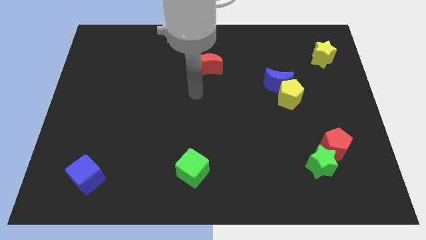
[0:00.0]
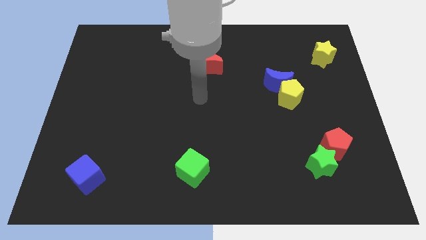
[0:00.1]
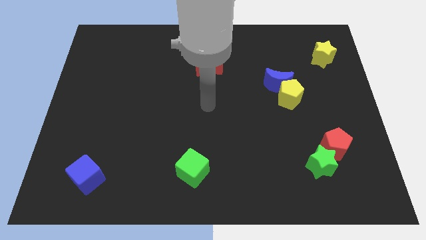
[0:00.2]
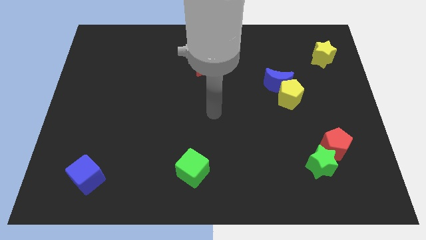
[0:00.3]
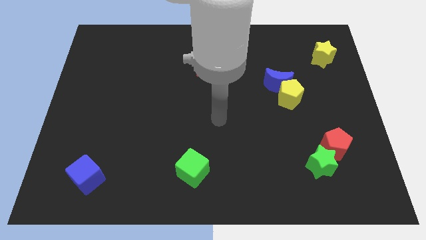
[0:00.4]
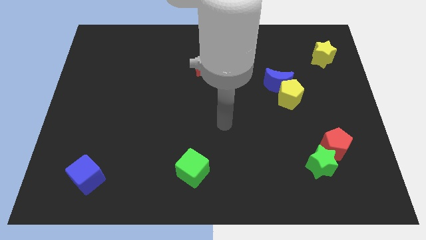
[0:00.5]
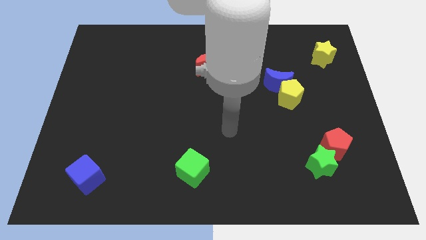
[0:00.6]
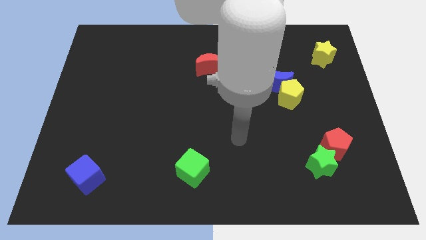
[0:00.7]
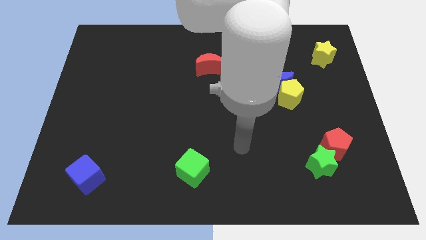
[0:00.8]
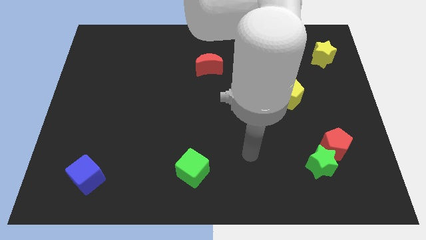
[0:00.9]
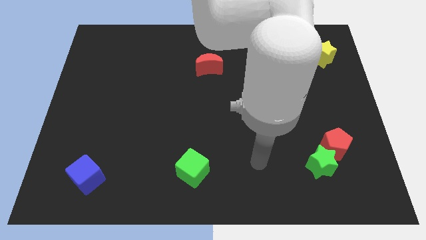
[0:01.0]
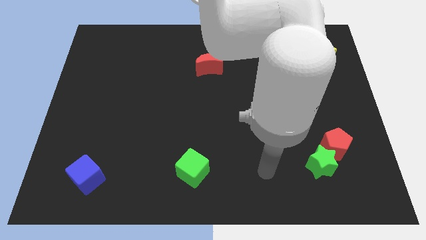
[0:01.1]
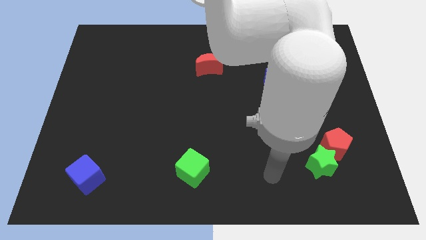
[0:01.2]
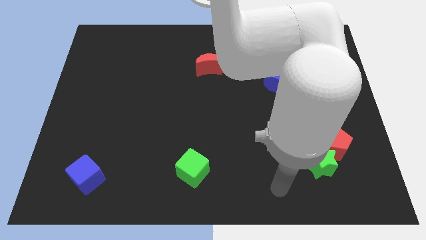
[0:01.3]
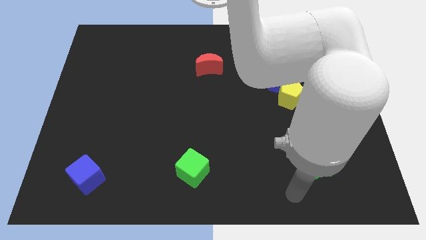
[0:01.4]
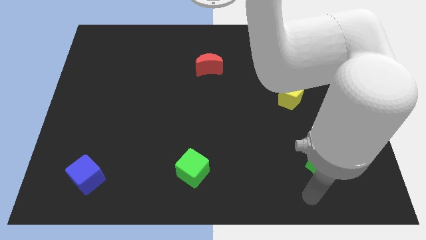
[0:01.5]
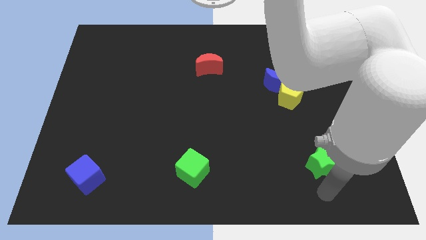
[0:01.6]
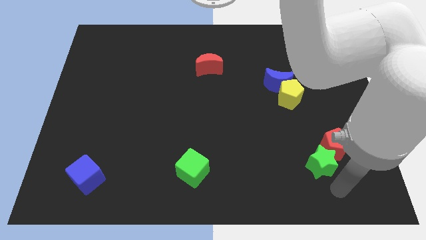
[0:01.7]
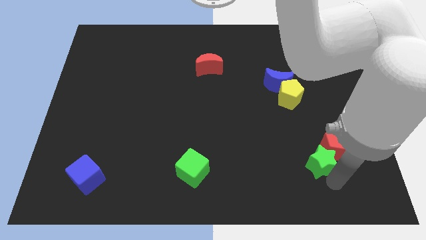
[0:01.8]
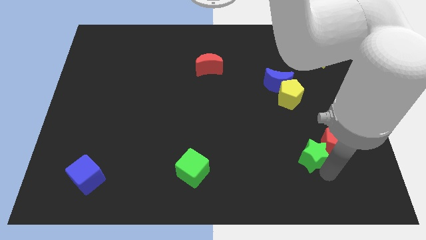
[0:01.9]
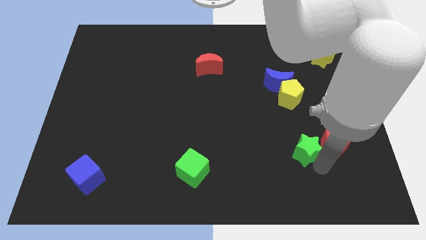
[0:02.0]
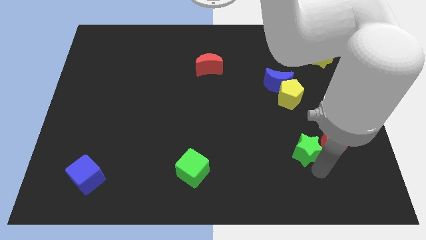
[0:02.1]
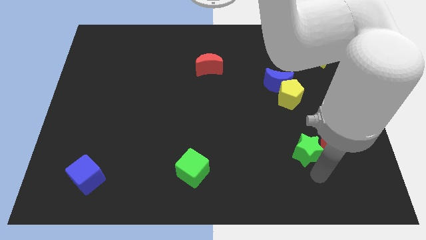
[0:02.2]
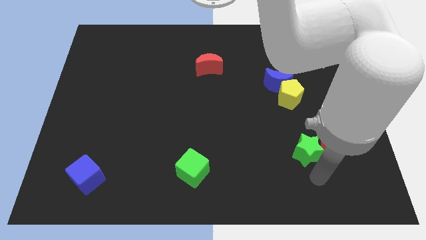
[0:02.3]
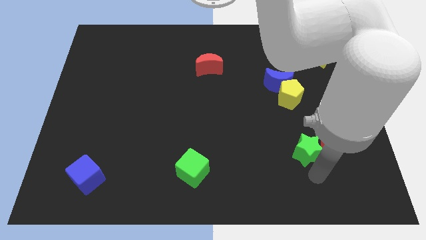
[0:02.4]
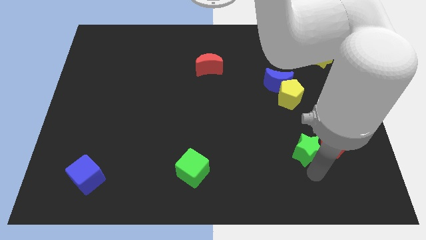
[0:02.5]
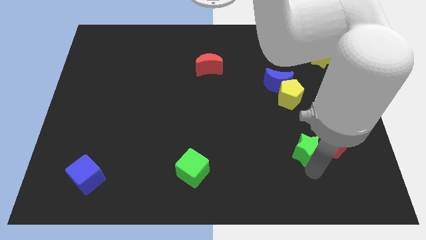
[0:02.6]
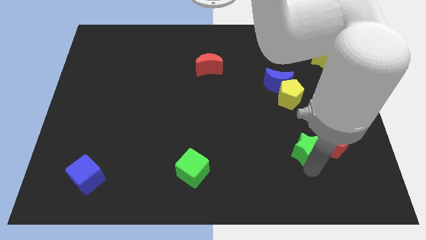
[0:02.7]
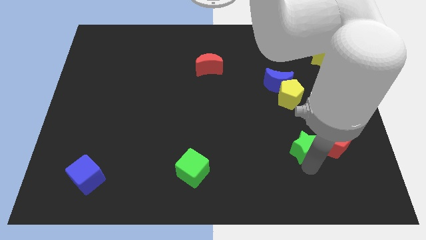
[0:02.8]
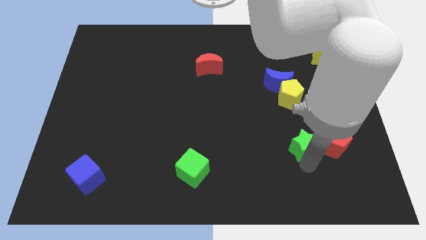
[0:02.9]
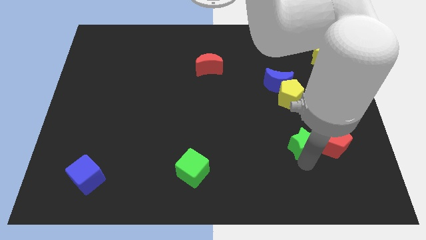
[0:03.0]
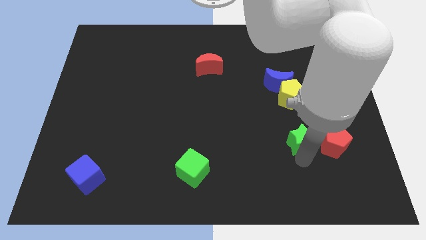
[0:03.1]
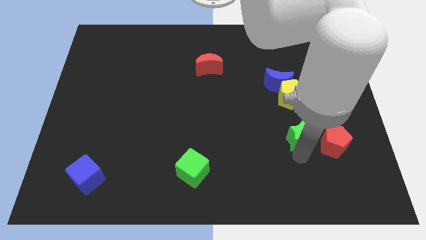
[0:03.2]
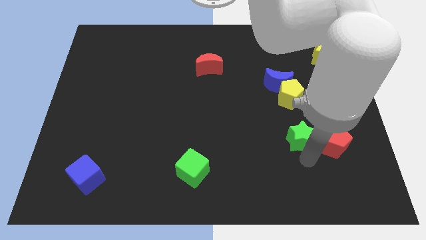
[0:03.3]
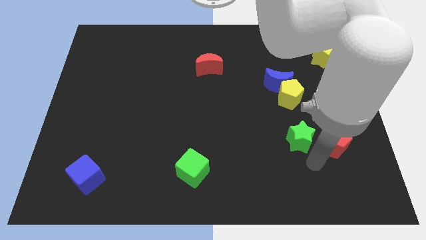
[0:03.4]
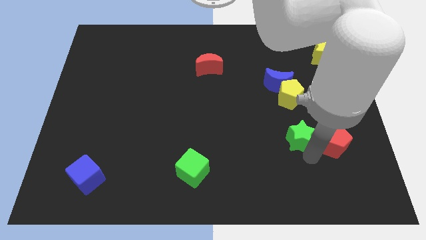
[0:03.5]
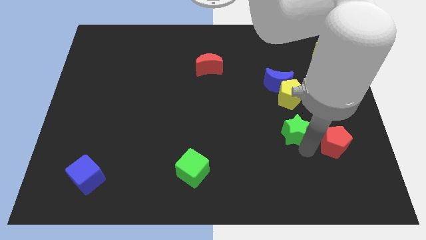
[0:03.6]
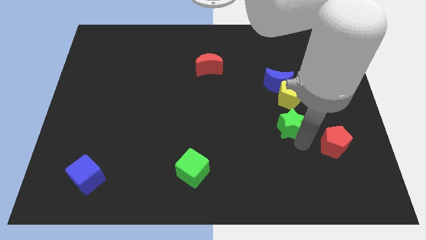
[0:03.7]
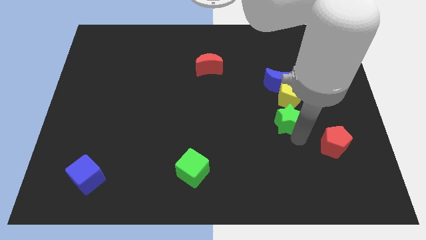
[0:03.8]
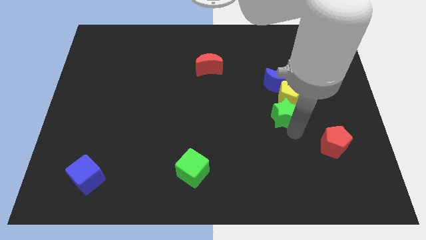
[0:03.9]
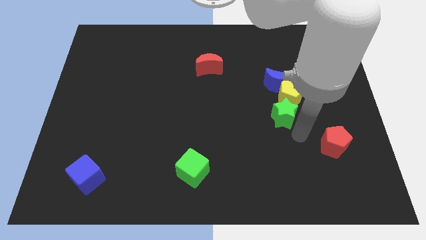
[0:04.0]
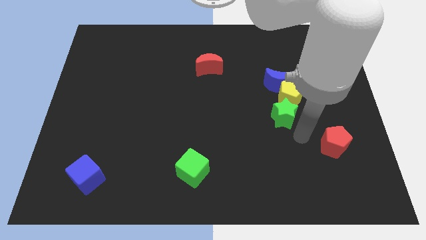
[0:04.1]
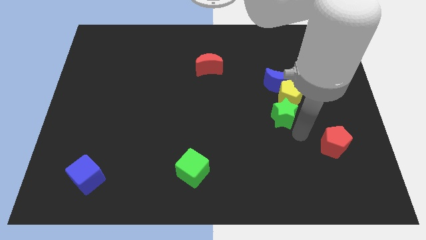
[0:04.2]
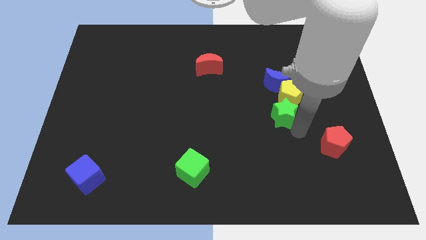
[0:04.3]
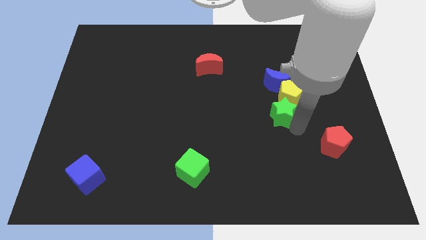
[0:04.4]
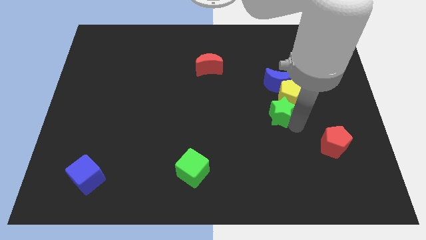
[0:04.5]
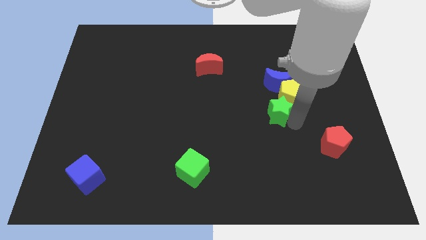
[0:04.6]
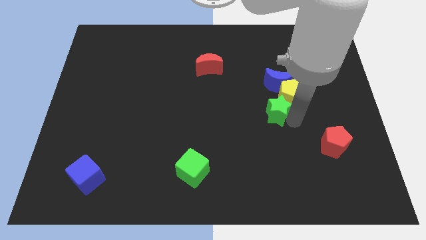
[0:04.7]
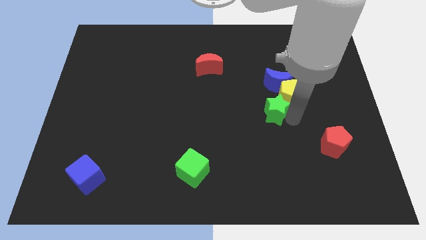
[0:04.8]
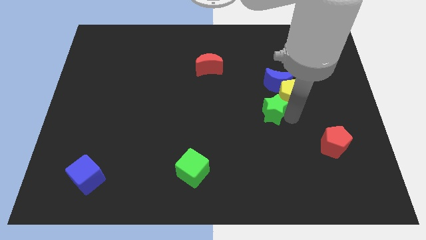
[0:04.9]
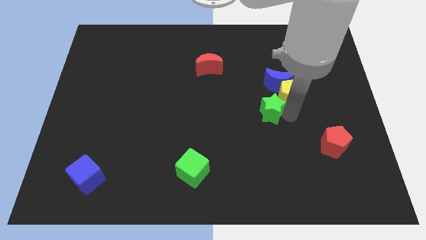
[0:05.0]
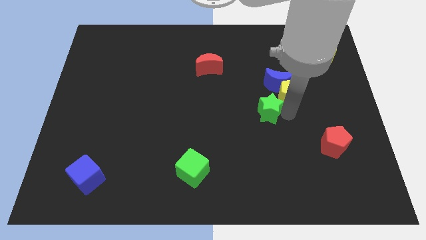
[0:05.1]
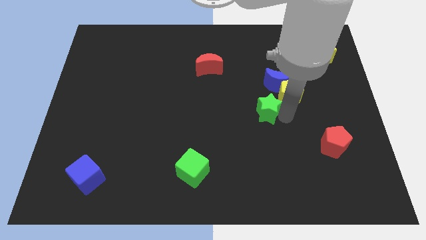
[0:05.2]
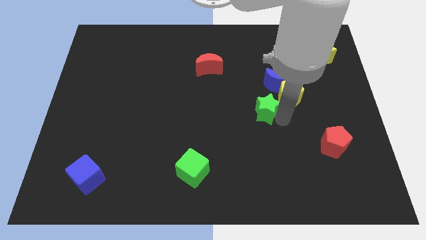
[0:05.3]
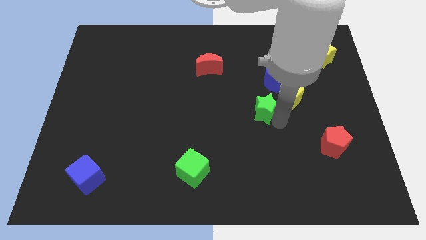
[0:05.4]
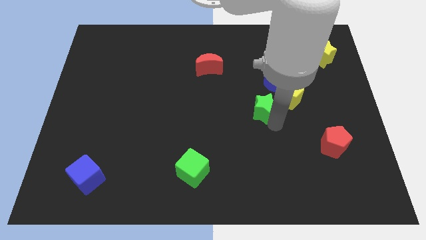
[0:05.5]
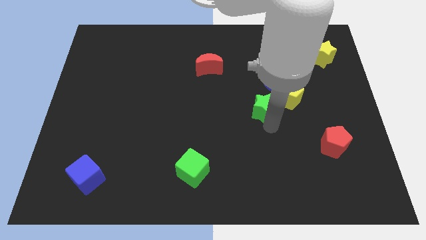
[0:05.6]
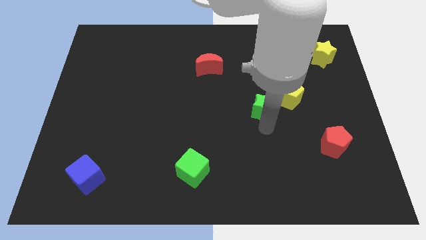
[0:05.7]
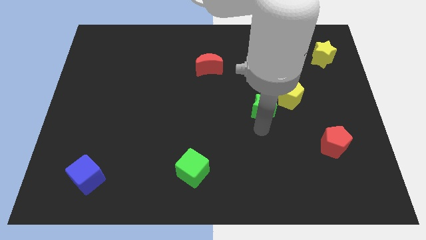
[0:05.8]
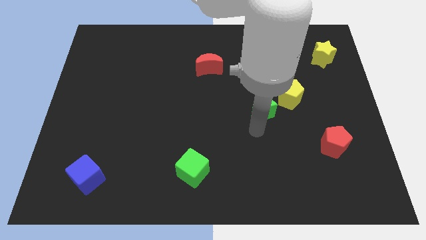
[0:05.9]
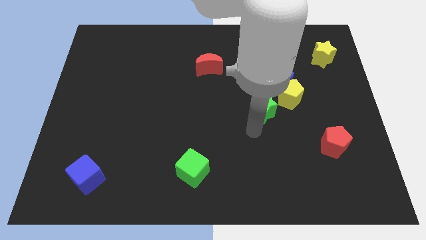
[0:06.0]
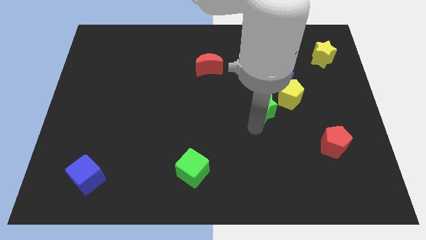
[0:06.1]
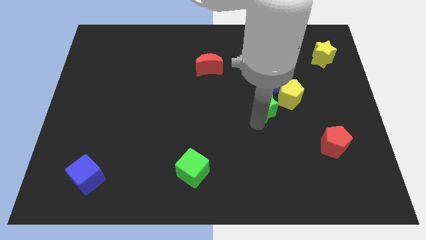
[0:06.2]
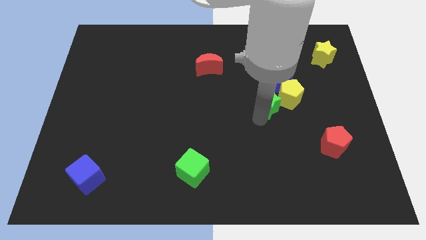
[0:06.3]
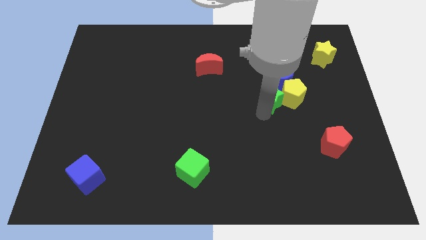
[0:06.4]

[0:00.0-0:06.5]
slide the green star to the blue moon
